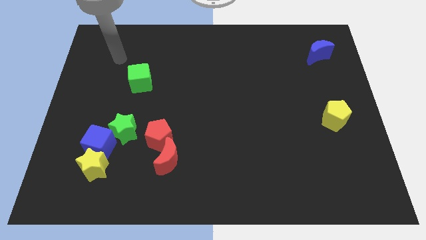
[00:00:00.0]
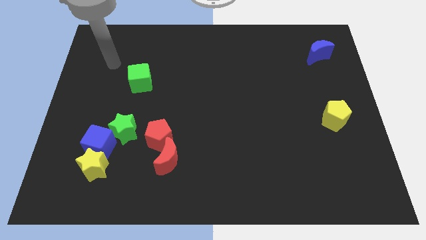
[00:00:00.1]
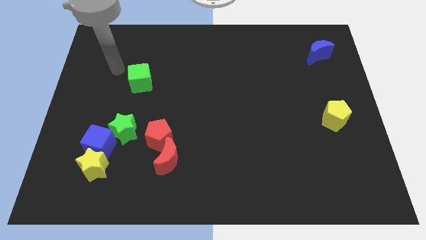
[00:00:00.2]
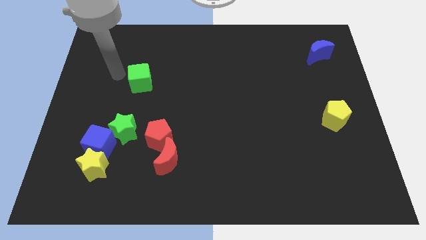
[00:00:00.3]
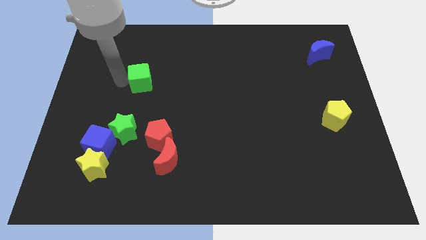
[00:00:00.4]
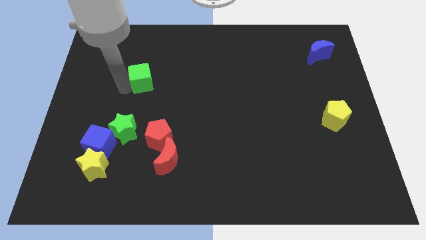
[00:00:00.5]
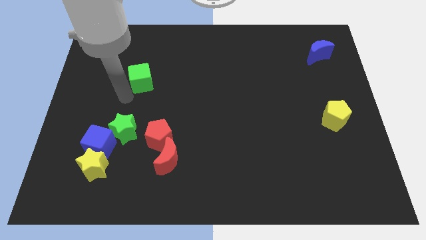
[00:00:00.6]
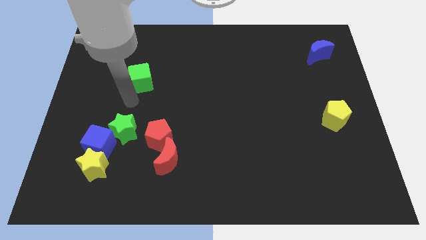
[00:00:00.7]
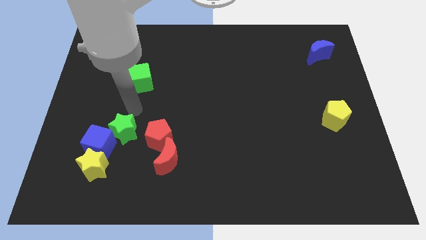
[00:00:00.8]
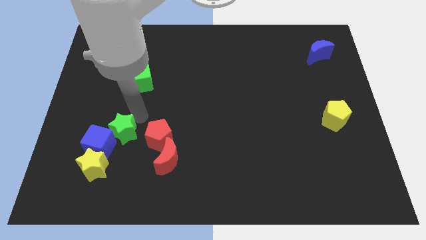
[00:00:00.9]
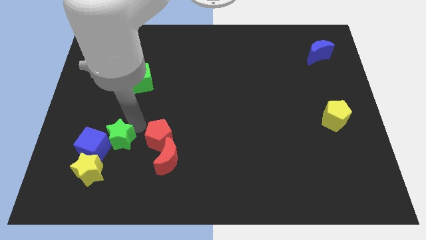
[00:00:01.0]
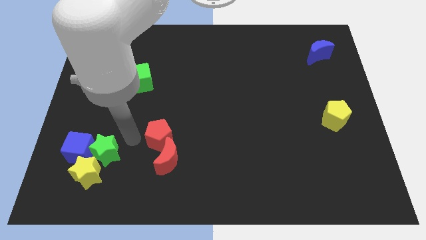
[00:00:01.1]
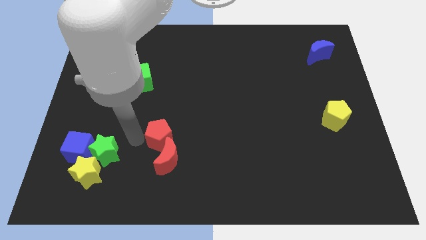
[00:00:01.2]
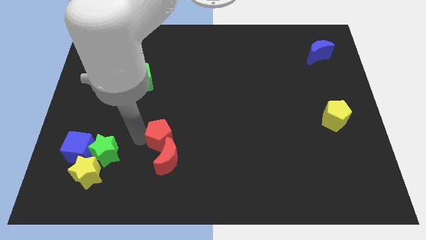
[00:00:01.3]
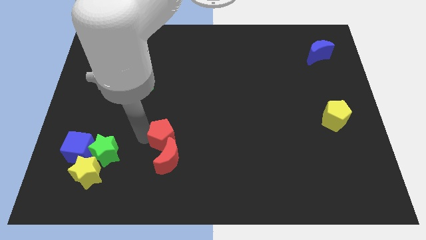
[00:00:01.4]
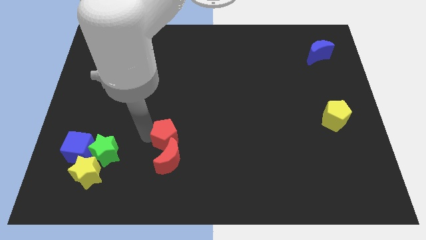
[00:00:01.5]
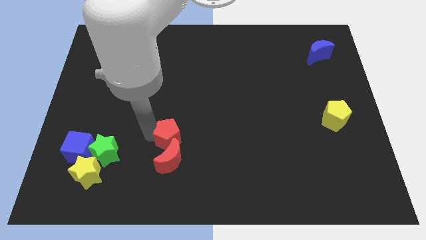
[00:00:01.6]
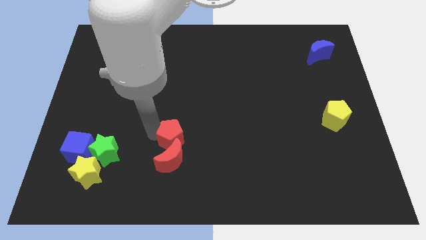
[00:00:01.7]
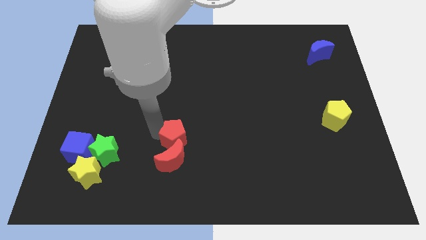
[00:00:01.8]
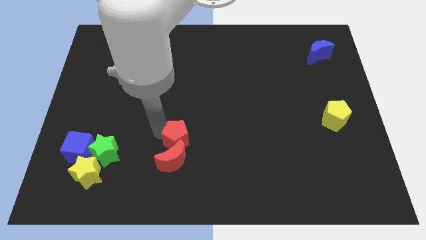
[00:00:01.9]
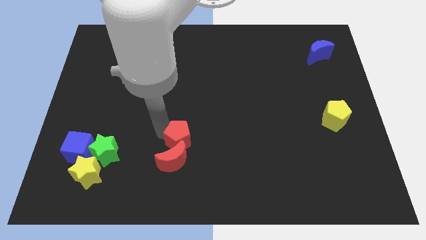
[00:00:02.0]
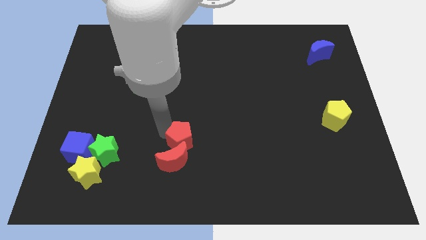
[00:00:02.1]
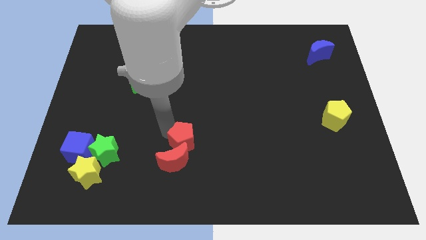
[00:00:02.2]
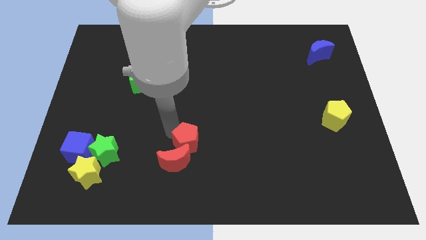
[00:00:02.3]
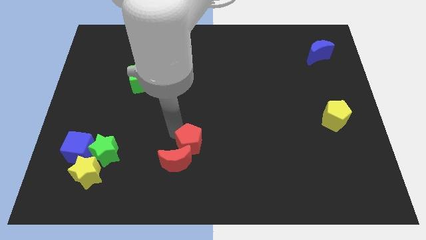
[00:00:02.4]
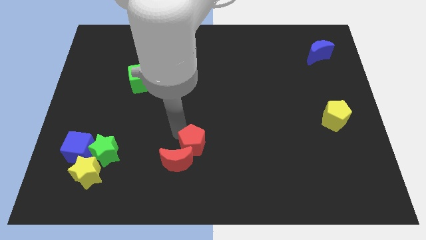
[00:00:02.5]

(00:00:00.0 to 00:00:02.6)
slide the red pentagon slightly right

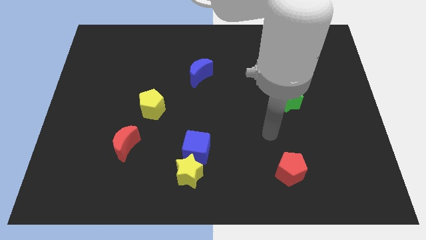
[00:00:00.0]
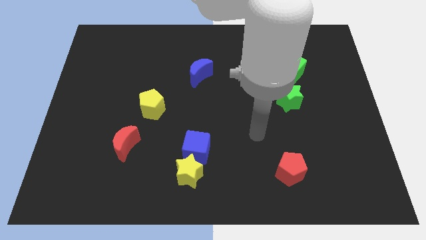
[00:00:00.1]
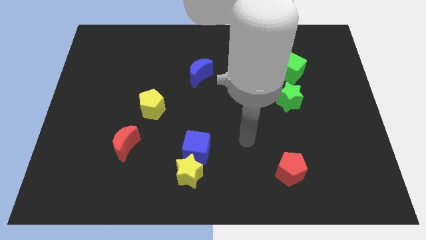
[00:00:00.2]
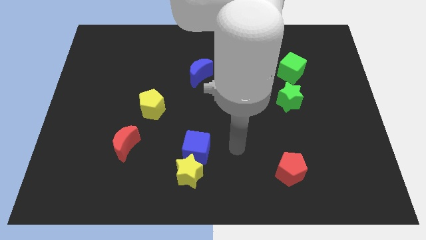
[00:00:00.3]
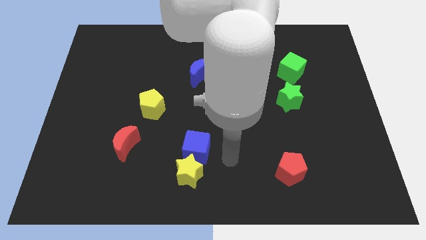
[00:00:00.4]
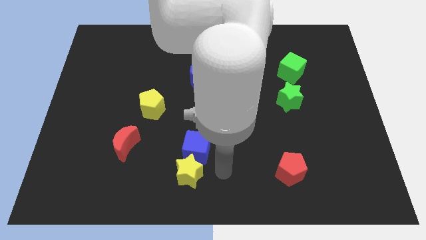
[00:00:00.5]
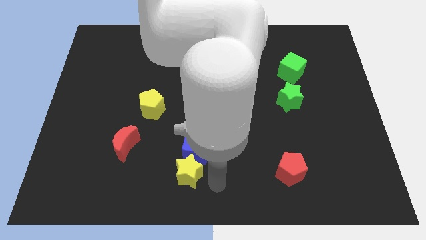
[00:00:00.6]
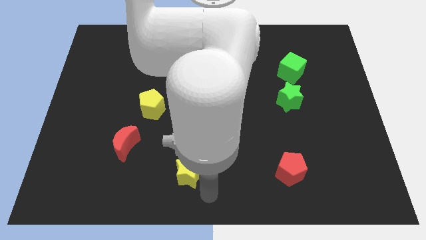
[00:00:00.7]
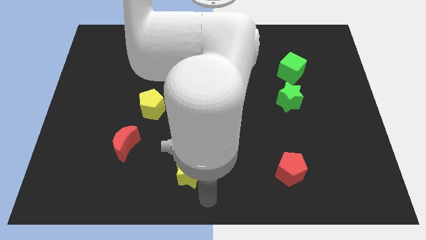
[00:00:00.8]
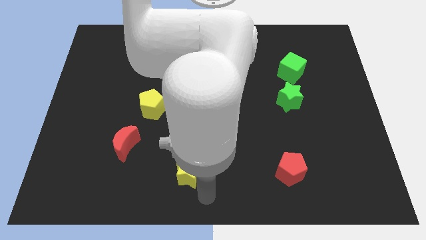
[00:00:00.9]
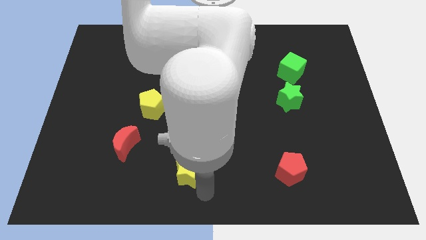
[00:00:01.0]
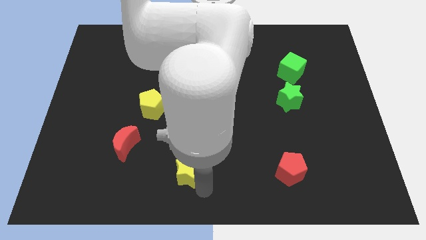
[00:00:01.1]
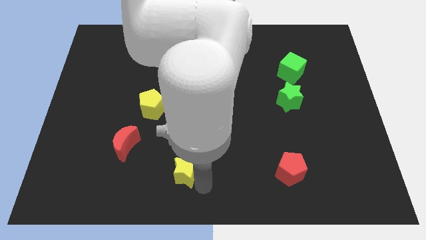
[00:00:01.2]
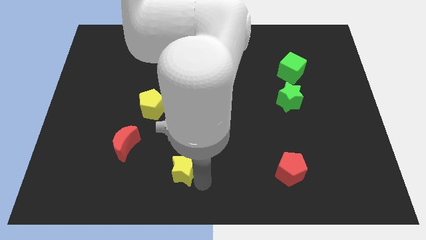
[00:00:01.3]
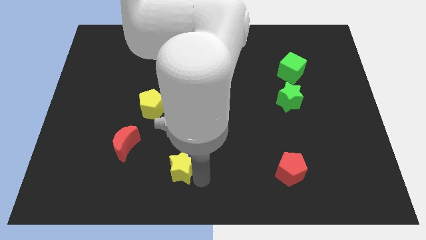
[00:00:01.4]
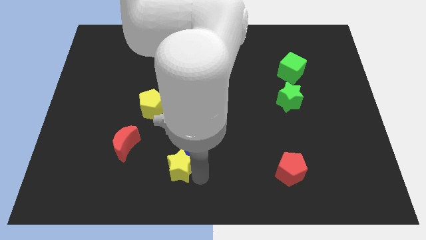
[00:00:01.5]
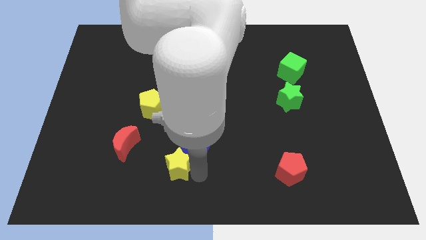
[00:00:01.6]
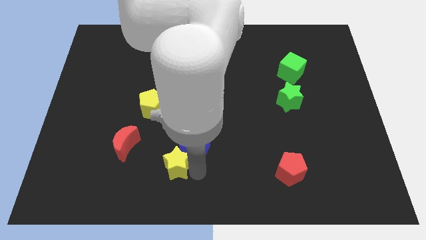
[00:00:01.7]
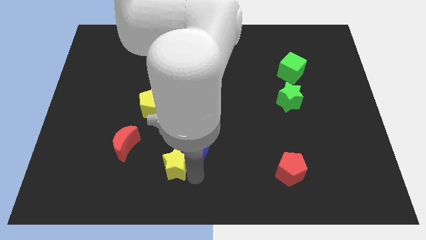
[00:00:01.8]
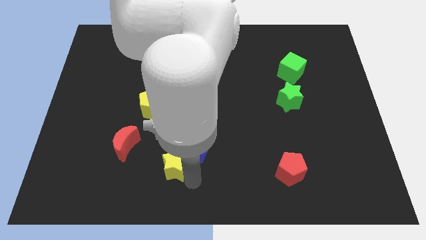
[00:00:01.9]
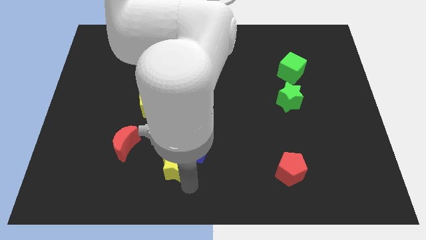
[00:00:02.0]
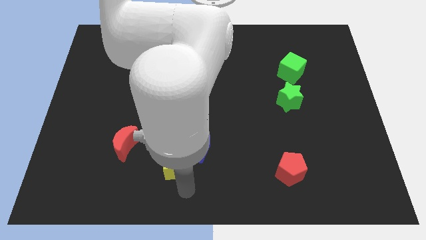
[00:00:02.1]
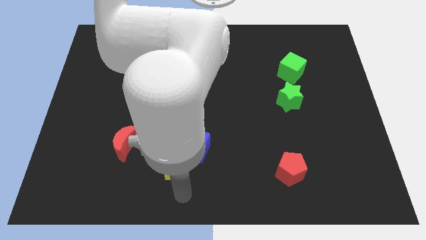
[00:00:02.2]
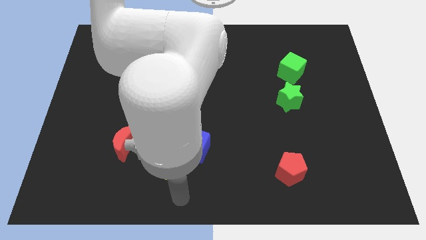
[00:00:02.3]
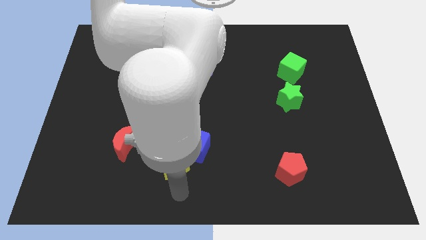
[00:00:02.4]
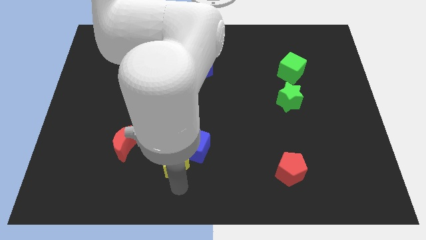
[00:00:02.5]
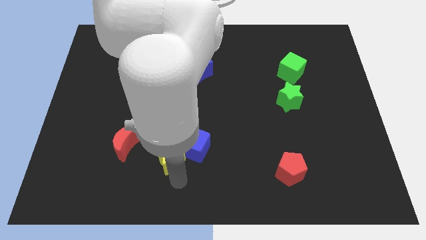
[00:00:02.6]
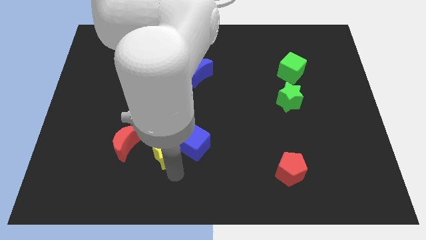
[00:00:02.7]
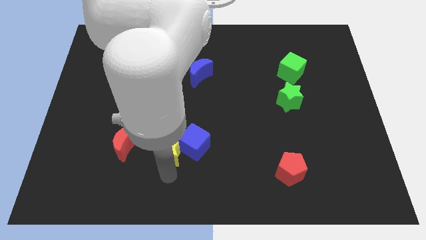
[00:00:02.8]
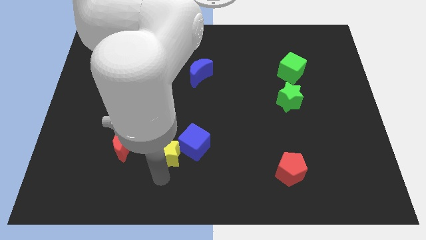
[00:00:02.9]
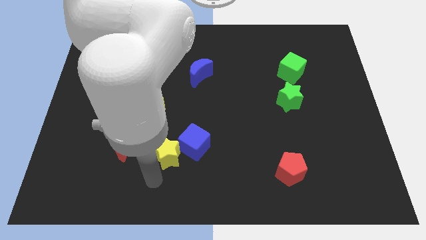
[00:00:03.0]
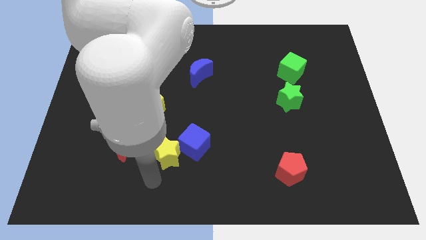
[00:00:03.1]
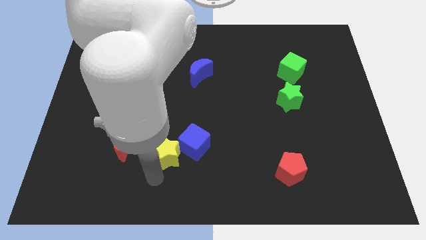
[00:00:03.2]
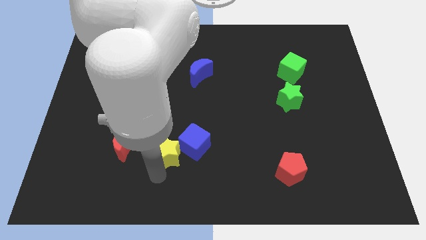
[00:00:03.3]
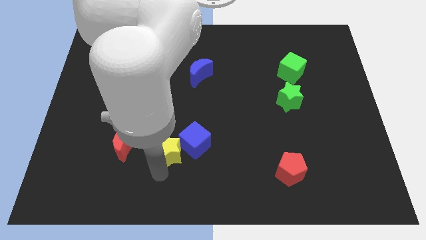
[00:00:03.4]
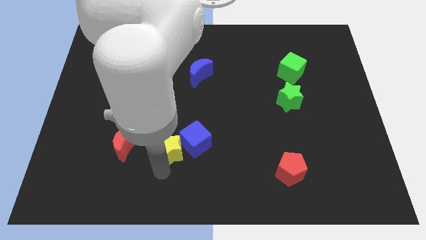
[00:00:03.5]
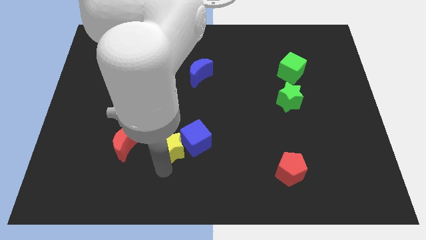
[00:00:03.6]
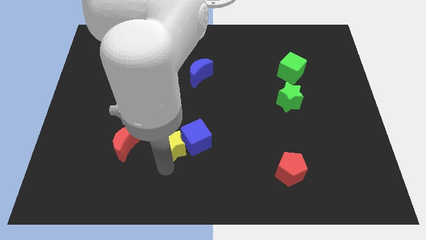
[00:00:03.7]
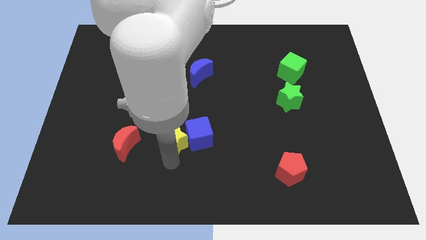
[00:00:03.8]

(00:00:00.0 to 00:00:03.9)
move the yellow star slightly upwards

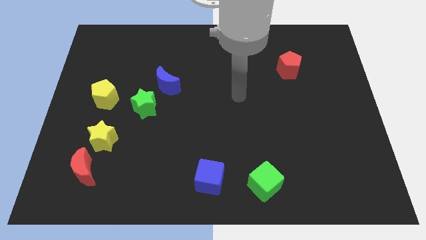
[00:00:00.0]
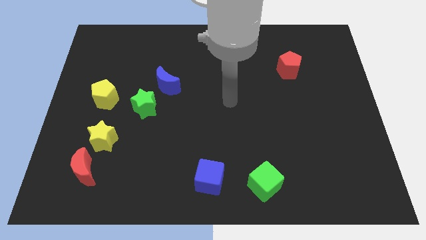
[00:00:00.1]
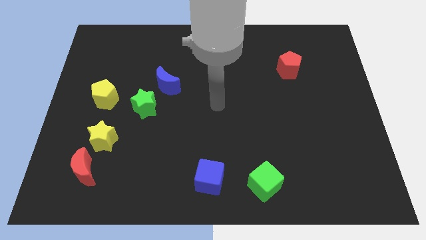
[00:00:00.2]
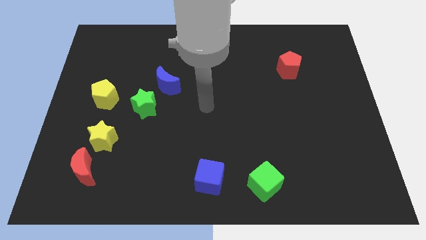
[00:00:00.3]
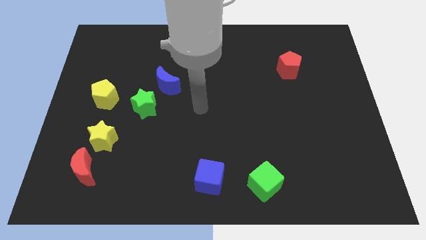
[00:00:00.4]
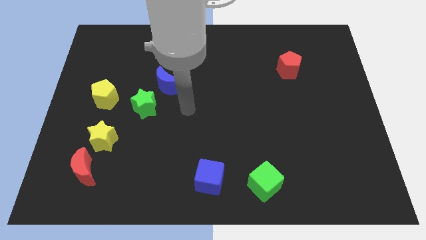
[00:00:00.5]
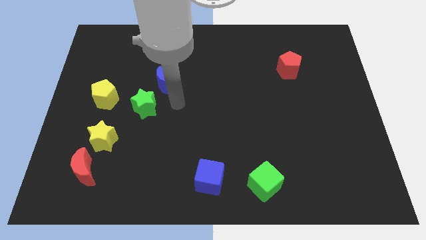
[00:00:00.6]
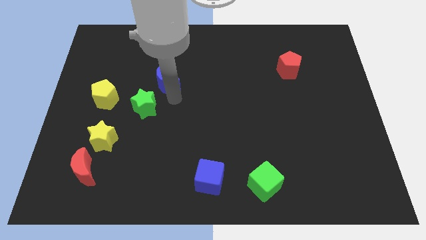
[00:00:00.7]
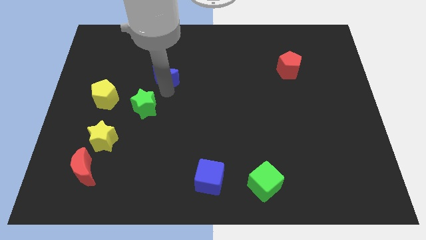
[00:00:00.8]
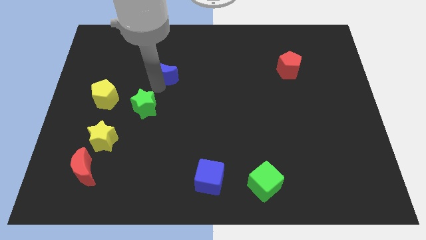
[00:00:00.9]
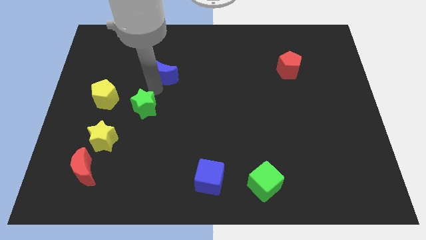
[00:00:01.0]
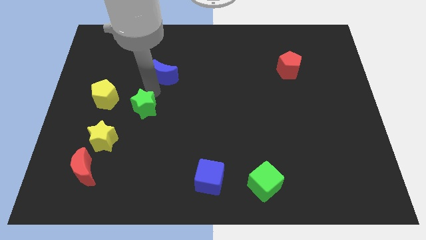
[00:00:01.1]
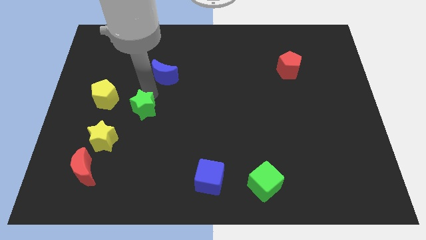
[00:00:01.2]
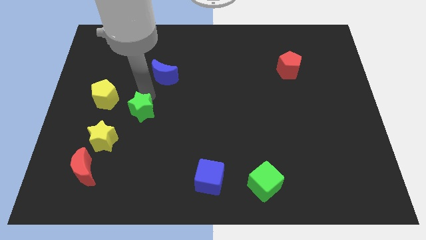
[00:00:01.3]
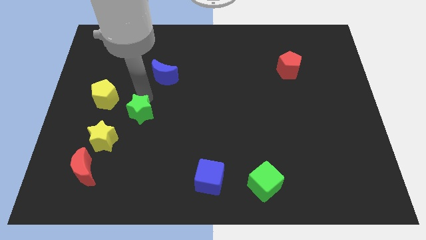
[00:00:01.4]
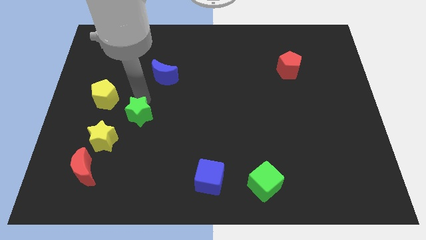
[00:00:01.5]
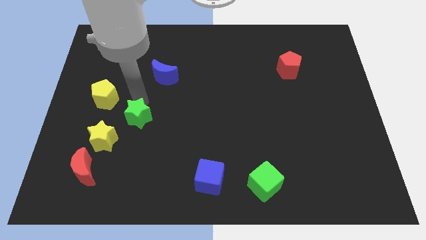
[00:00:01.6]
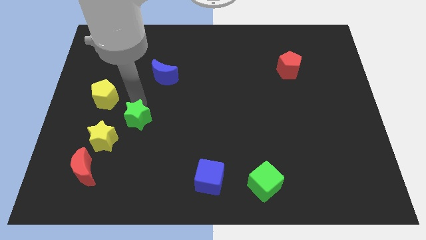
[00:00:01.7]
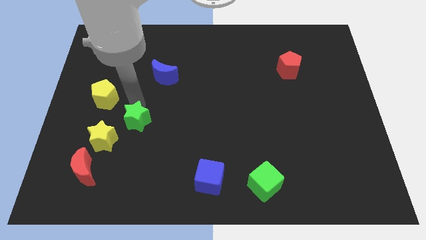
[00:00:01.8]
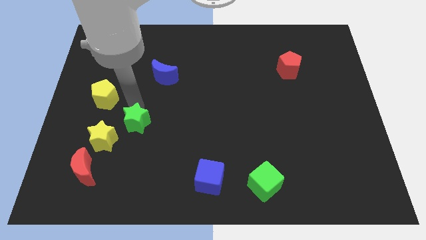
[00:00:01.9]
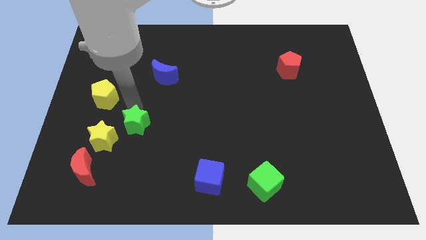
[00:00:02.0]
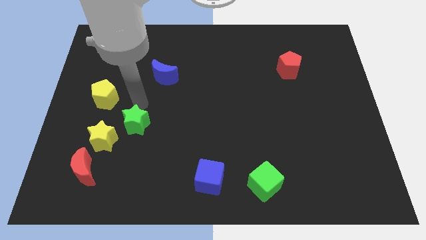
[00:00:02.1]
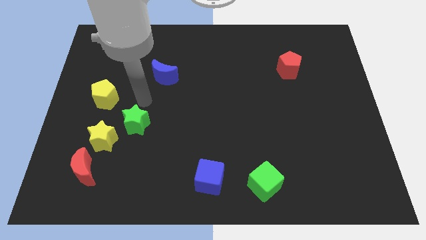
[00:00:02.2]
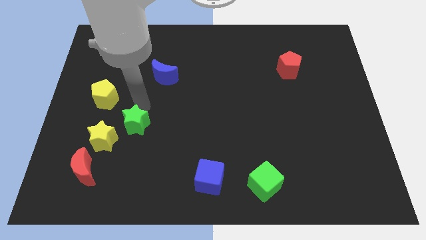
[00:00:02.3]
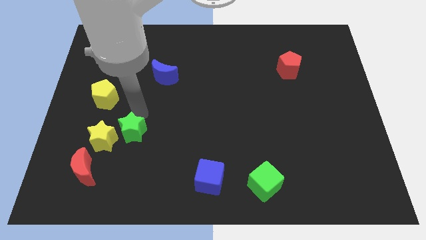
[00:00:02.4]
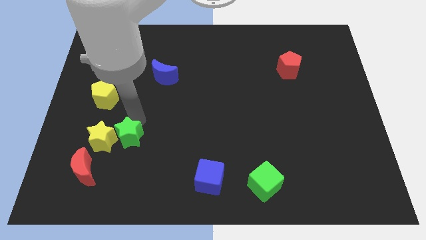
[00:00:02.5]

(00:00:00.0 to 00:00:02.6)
slightly push the green star down
